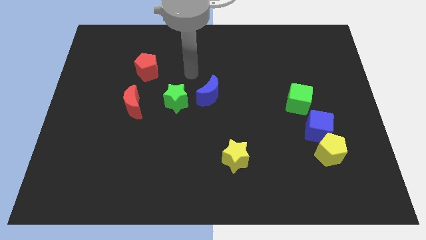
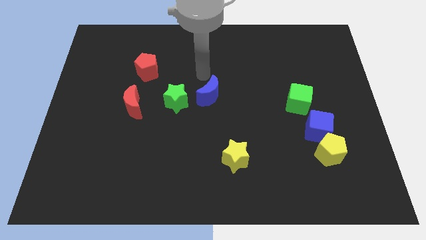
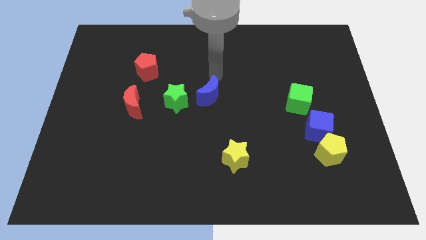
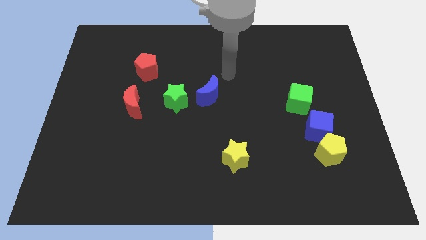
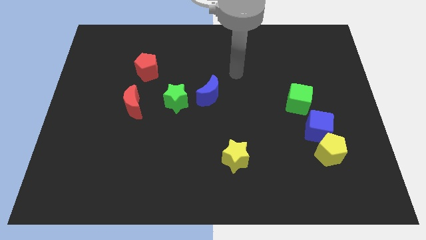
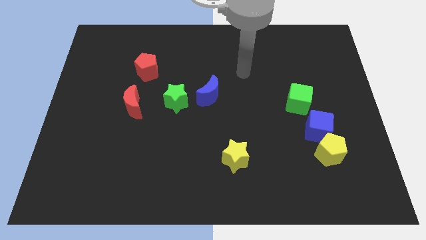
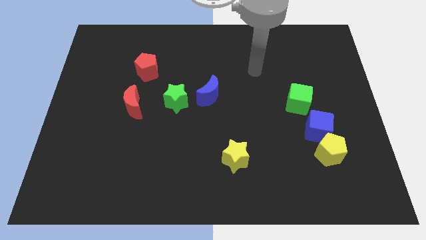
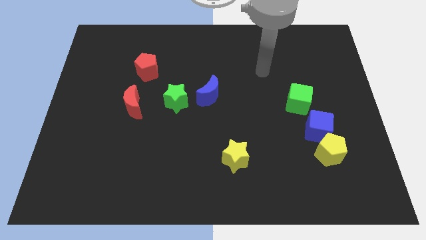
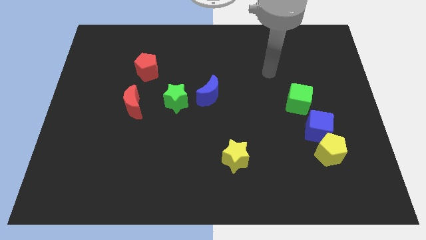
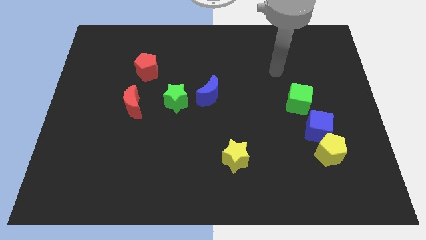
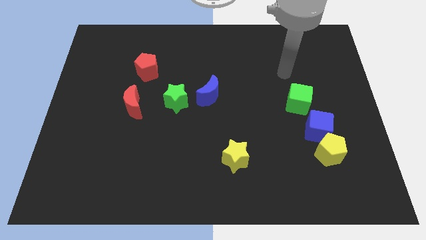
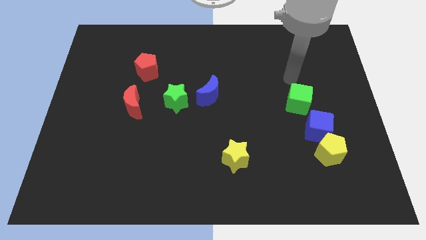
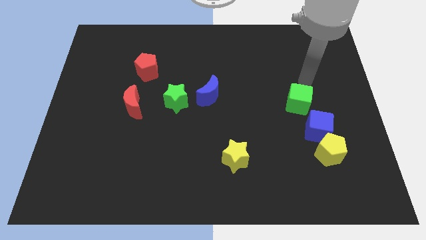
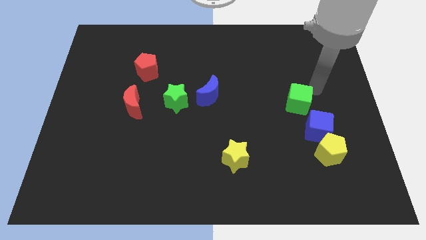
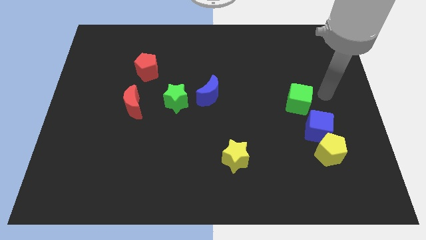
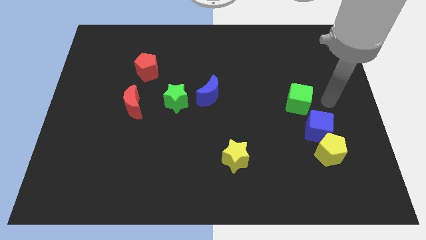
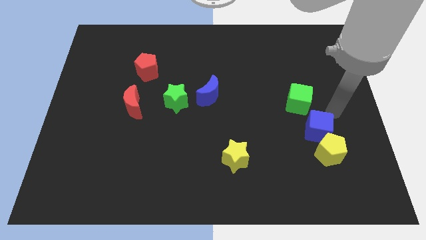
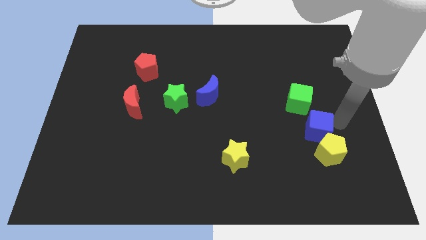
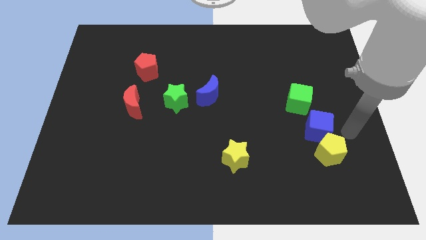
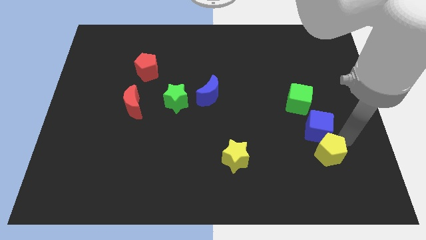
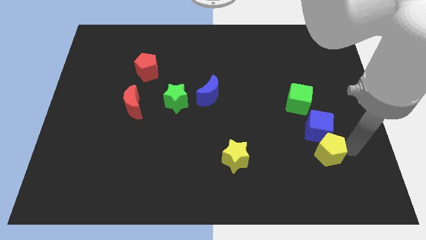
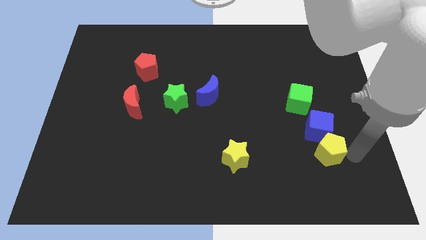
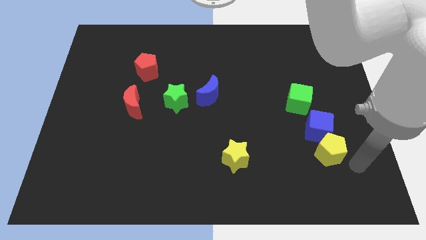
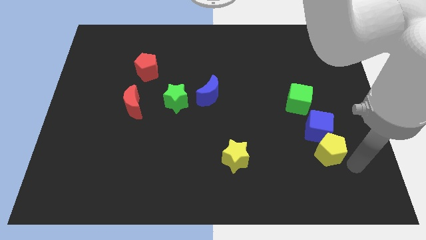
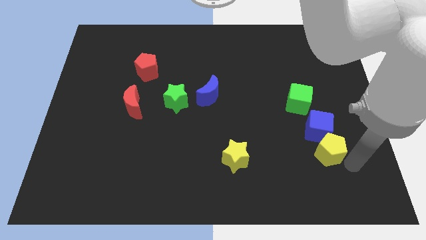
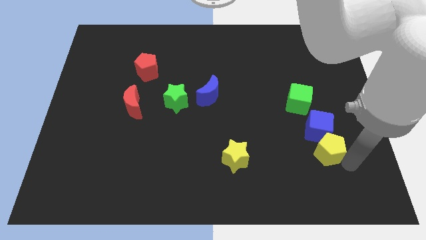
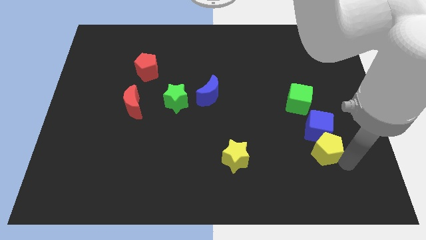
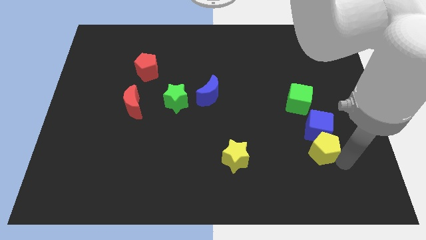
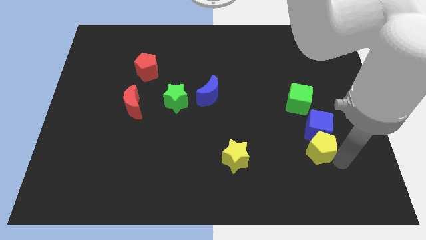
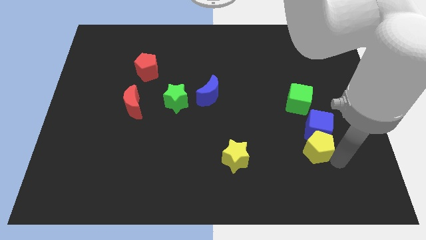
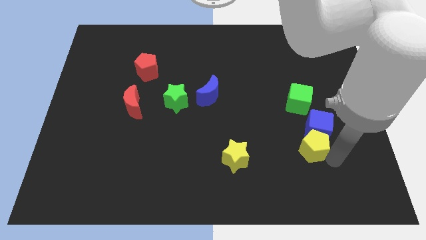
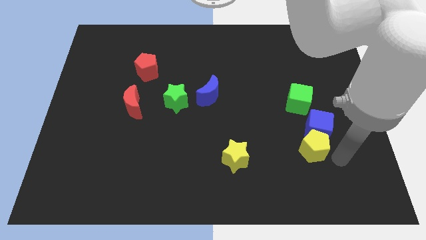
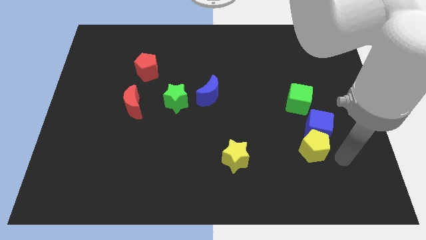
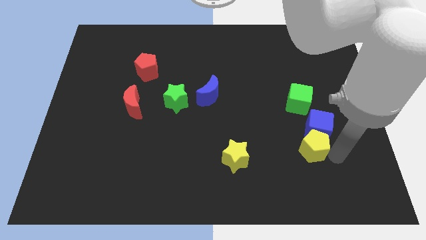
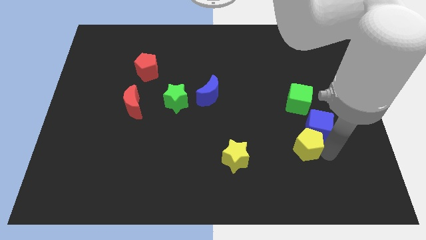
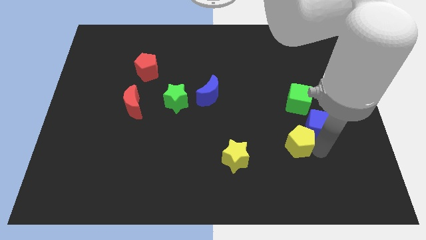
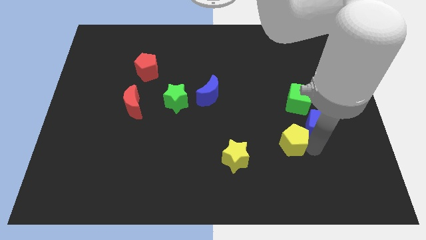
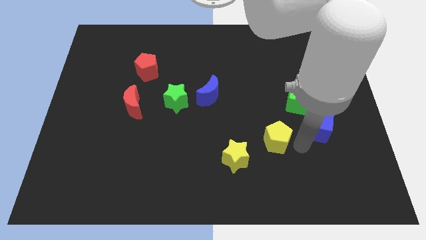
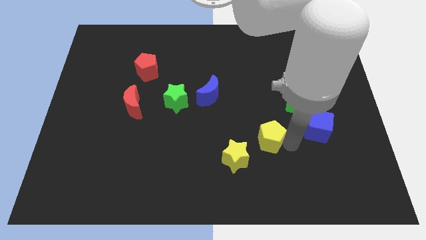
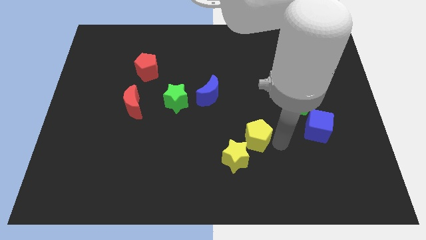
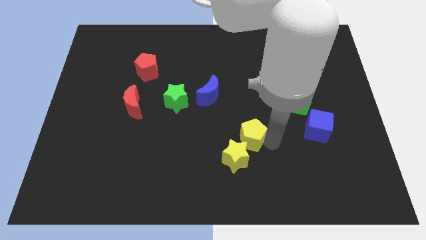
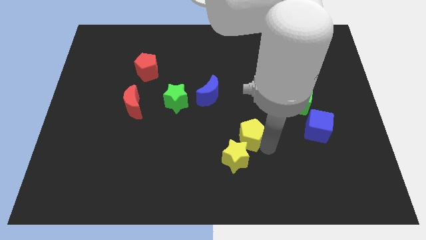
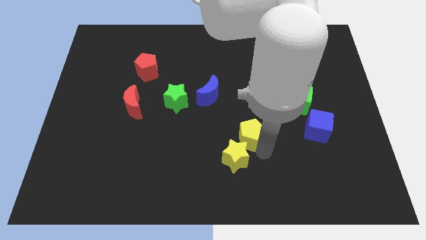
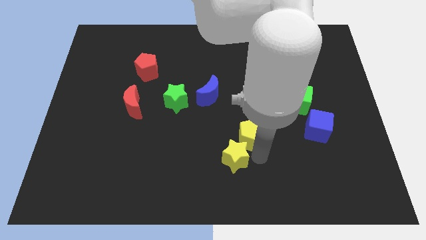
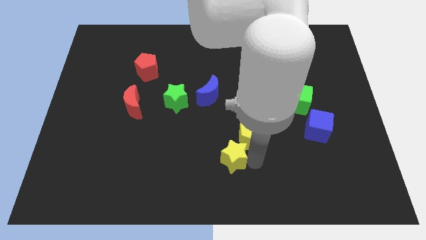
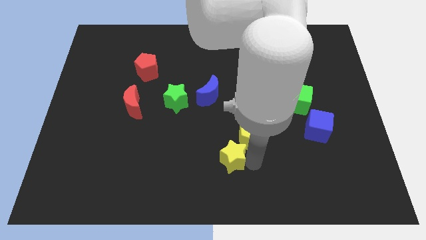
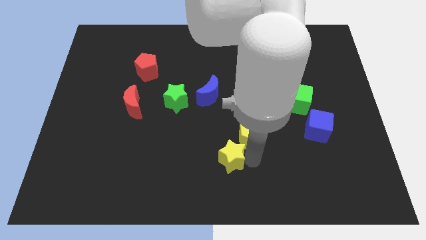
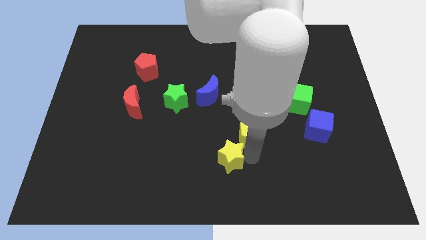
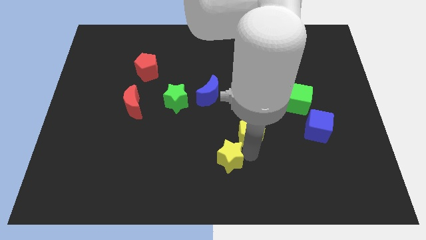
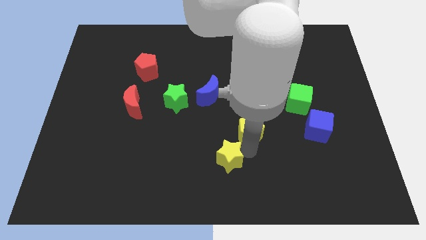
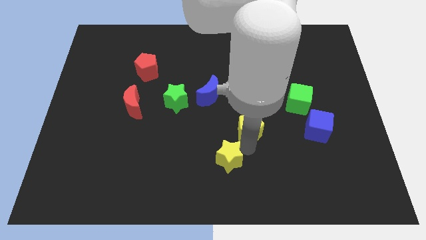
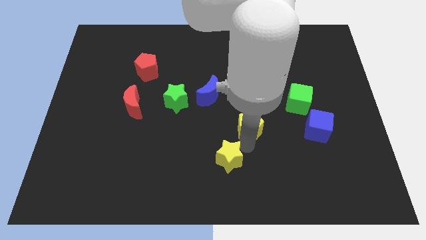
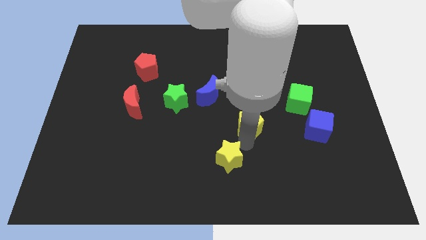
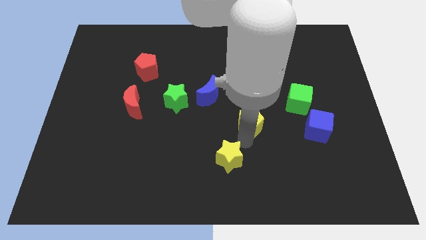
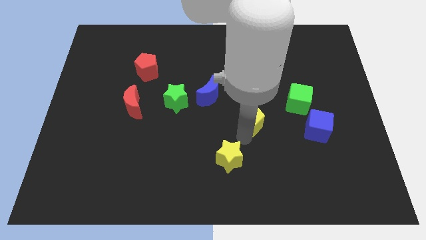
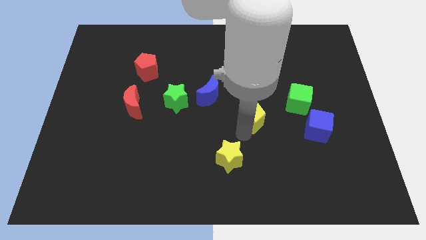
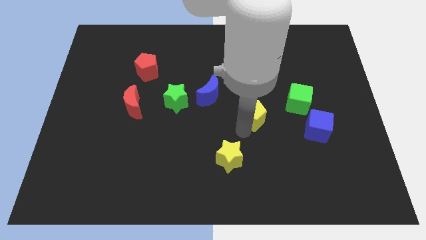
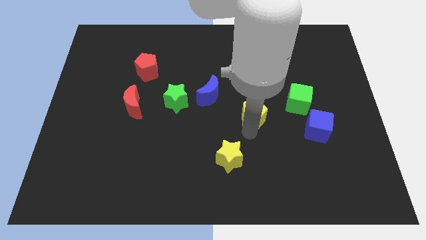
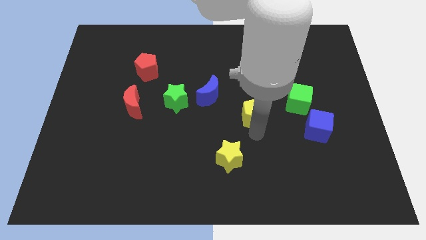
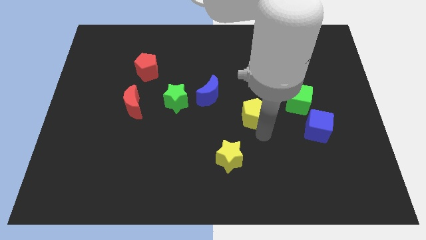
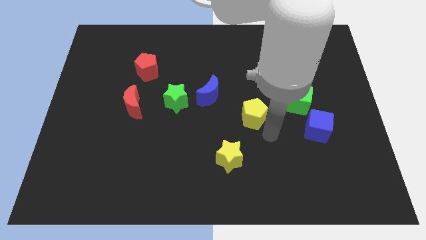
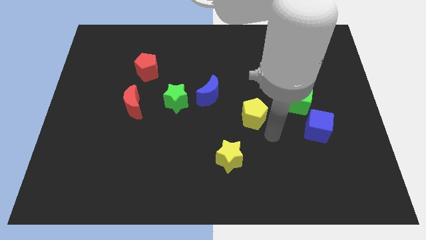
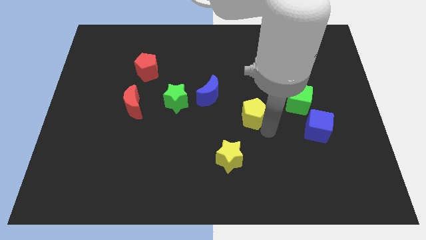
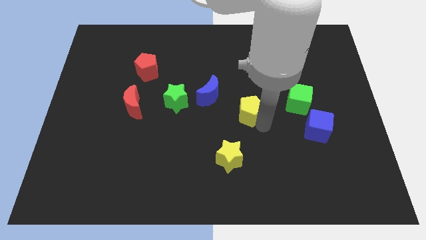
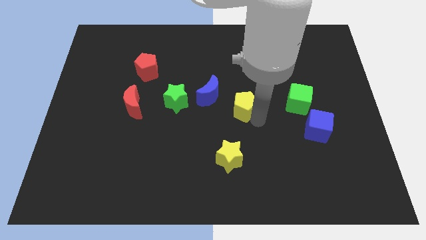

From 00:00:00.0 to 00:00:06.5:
push the yellow pentagon up and left diagonally

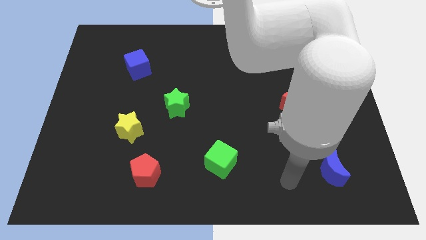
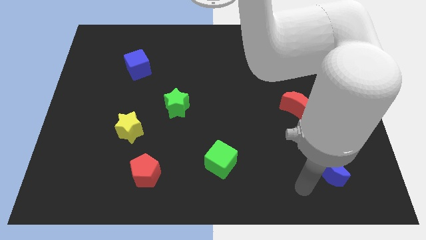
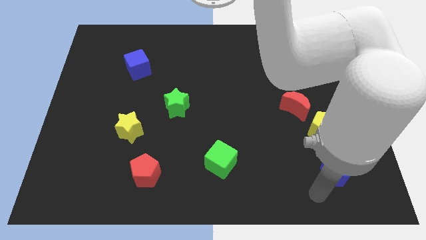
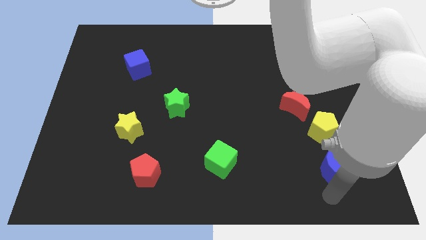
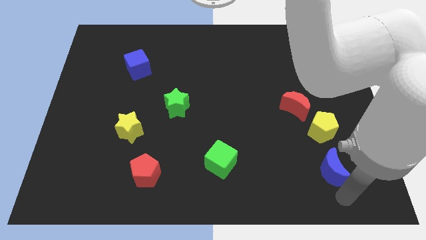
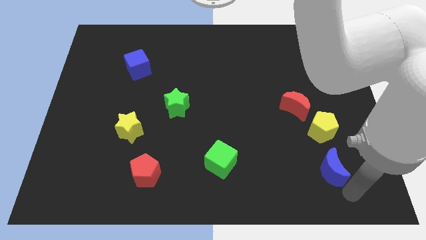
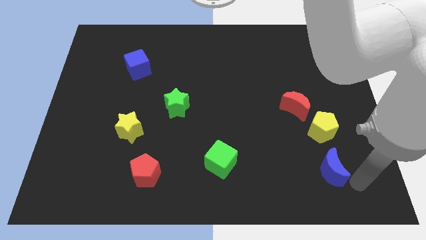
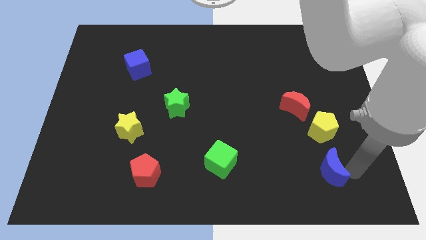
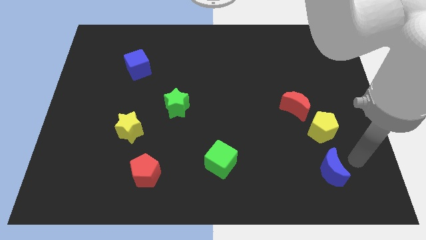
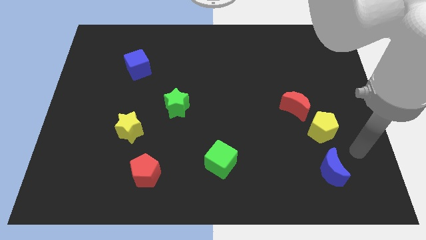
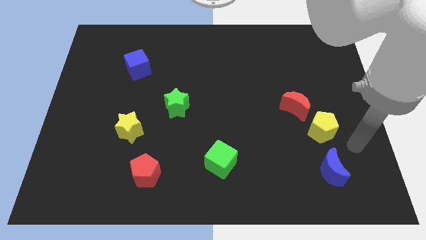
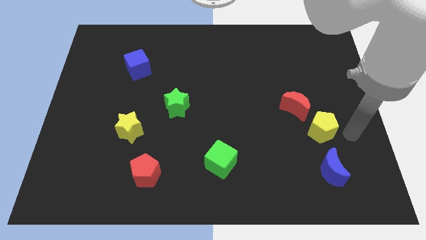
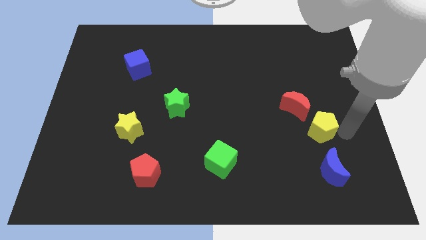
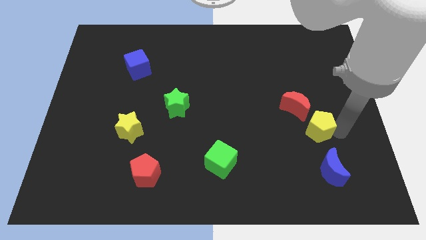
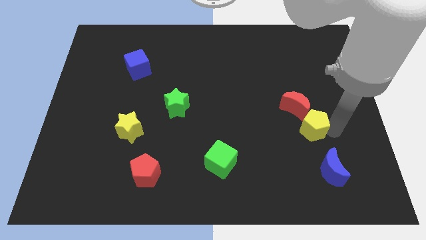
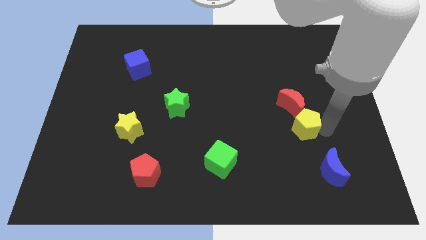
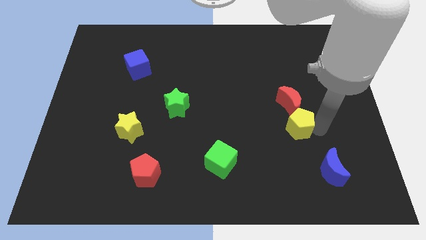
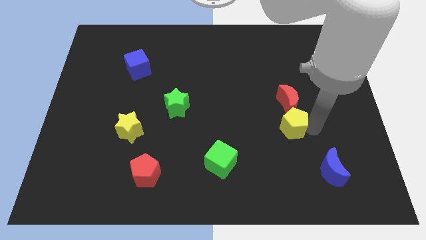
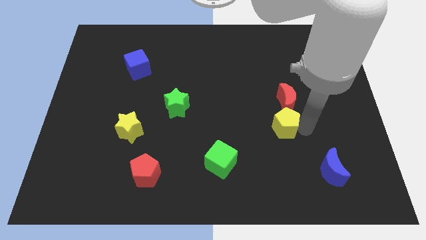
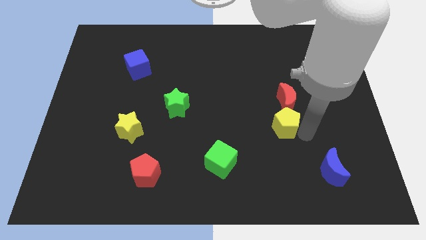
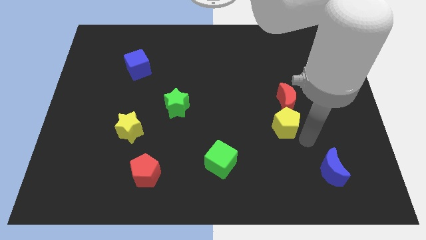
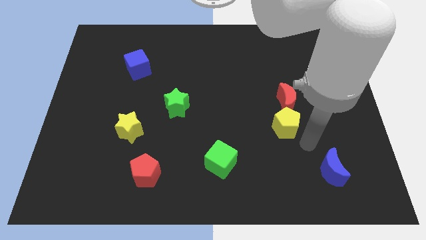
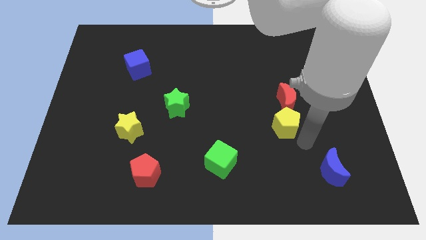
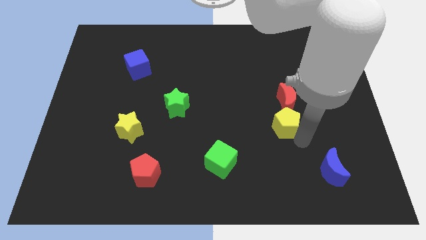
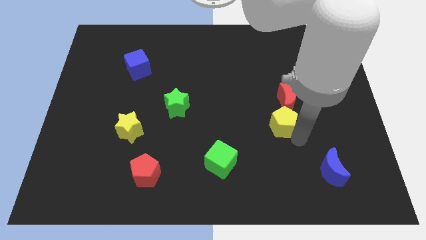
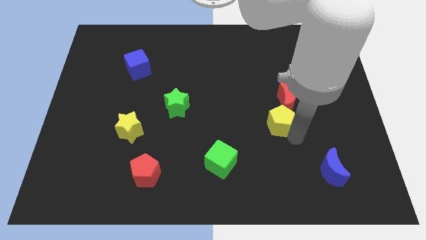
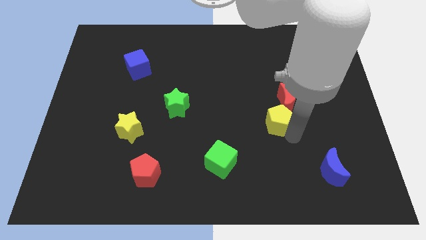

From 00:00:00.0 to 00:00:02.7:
move the yellow pentagon somewhat upwards and to the left
